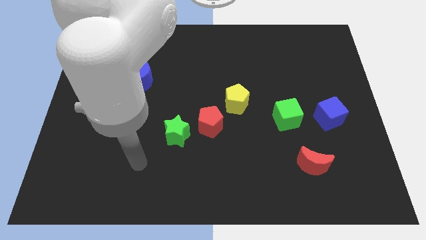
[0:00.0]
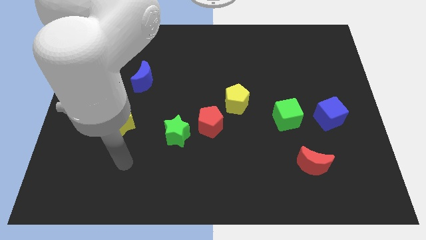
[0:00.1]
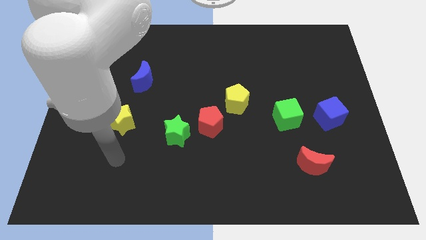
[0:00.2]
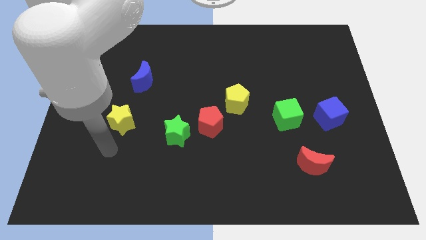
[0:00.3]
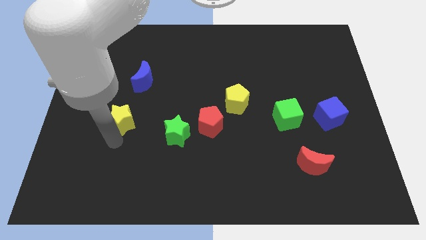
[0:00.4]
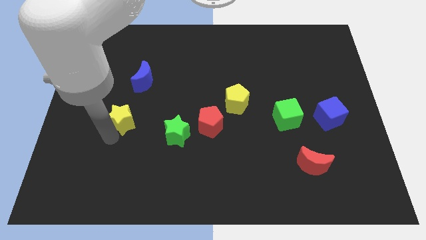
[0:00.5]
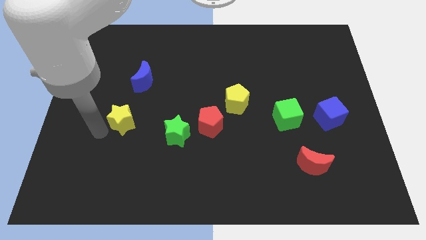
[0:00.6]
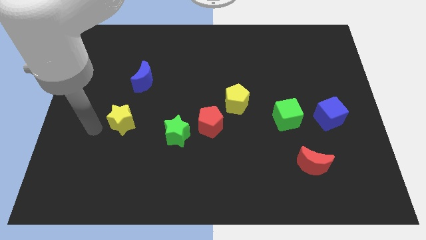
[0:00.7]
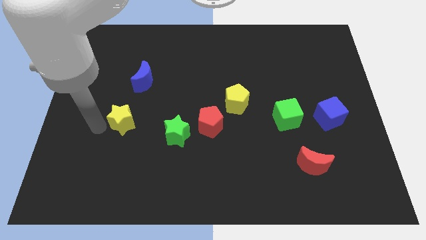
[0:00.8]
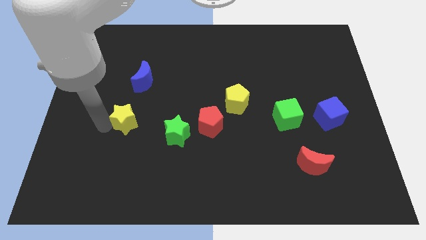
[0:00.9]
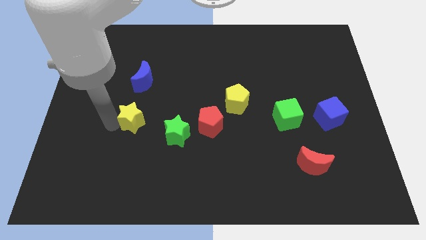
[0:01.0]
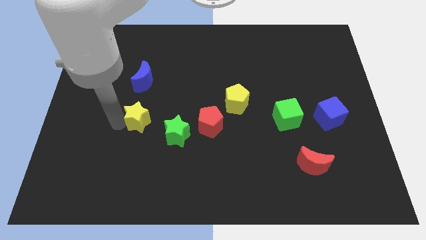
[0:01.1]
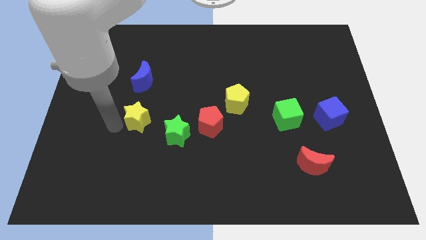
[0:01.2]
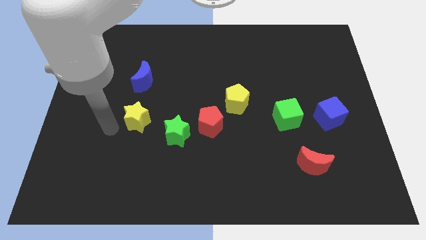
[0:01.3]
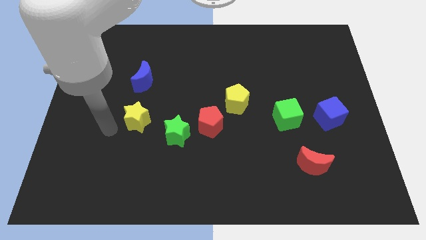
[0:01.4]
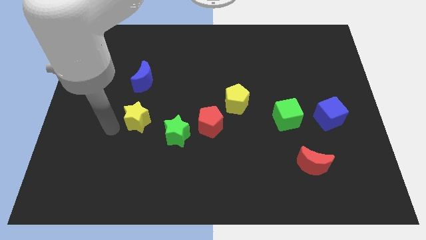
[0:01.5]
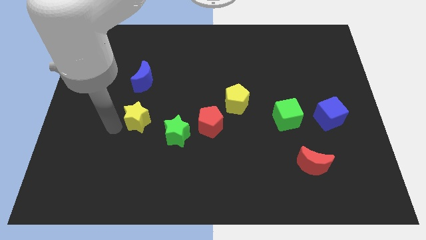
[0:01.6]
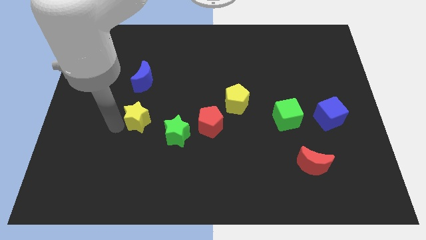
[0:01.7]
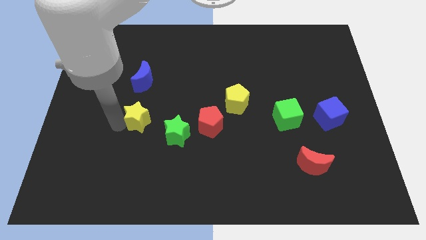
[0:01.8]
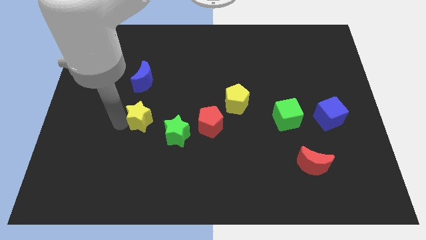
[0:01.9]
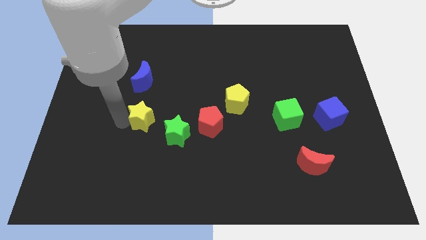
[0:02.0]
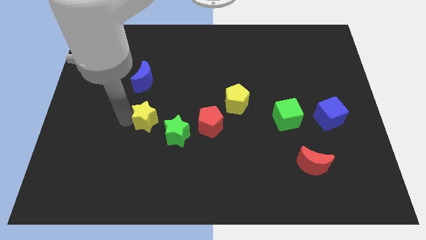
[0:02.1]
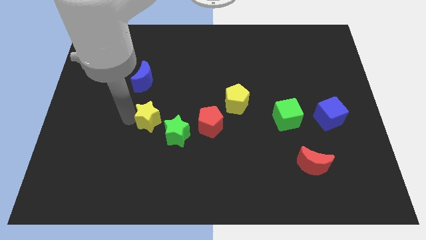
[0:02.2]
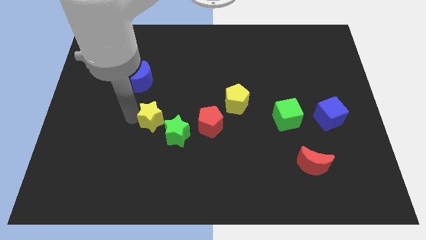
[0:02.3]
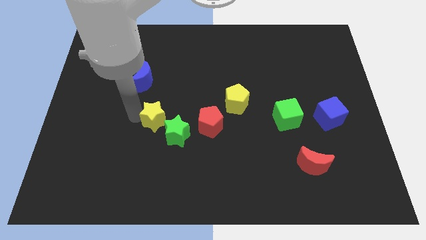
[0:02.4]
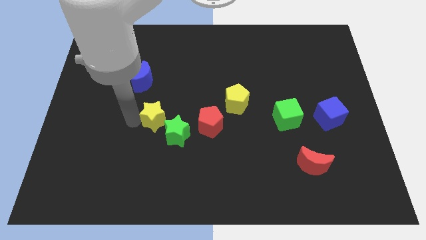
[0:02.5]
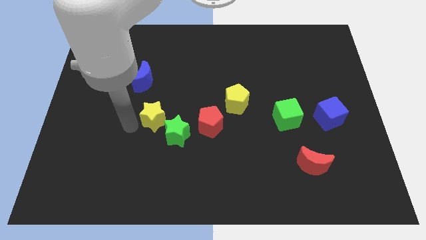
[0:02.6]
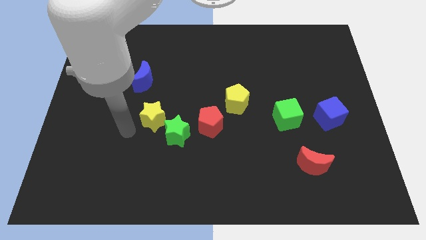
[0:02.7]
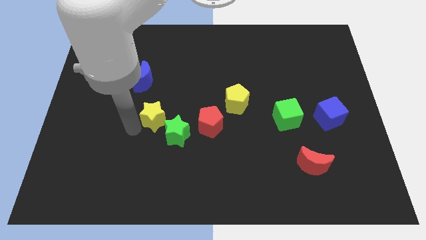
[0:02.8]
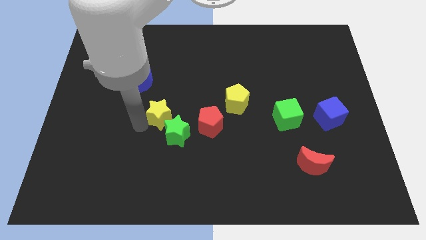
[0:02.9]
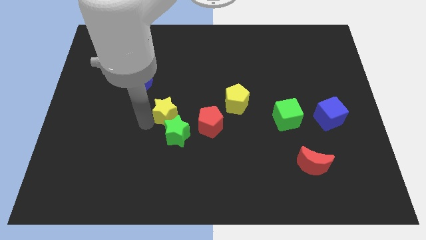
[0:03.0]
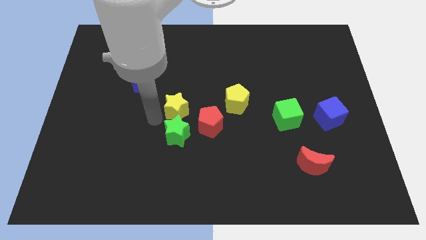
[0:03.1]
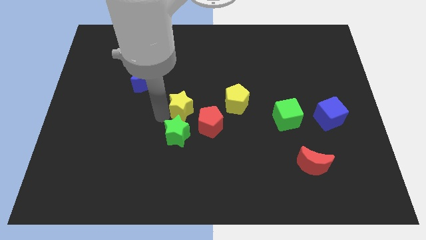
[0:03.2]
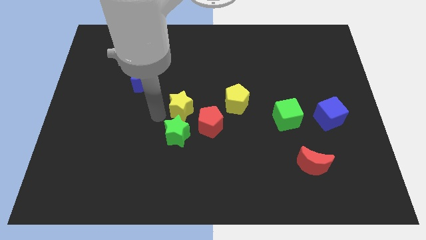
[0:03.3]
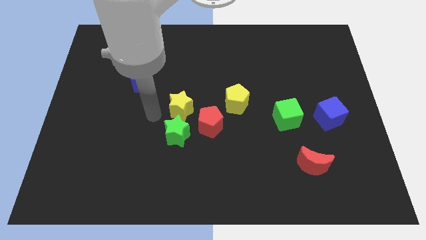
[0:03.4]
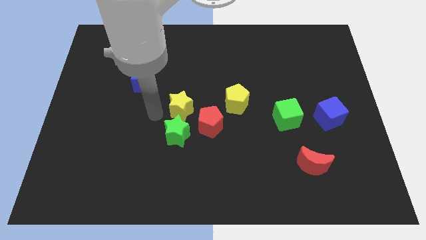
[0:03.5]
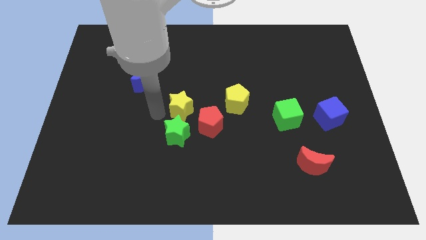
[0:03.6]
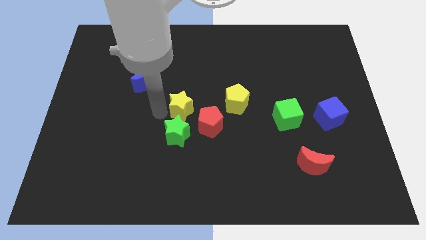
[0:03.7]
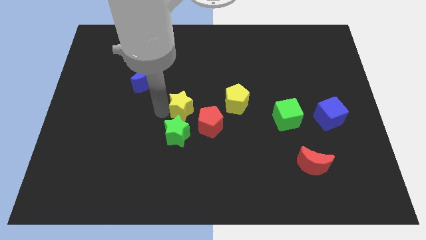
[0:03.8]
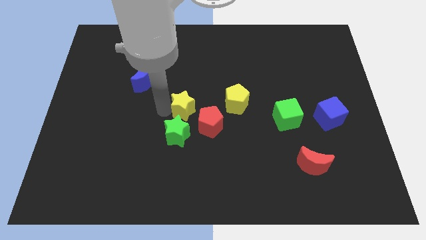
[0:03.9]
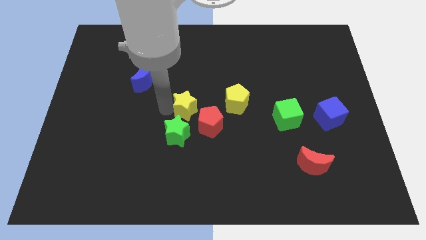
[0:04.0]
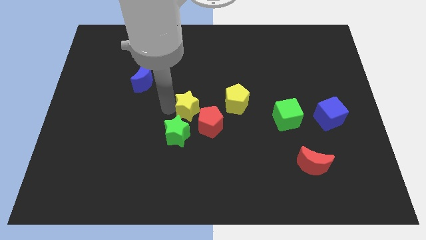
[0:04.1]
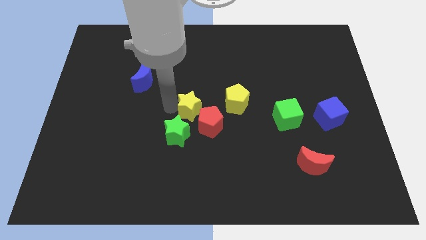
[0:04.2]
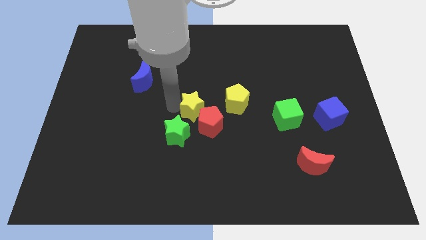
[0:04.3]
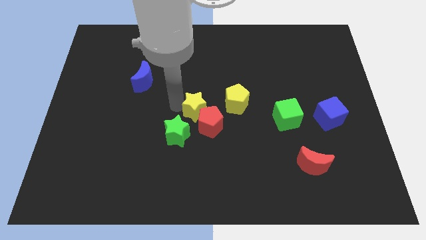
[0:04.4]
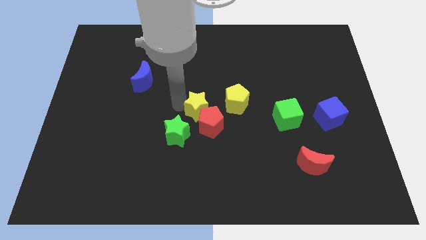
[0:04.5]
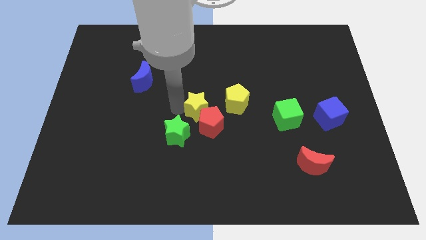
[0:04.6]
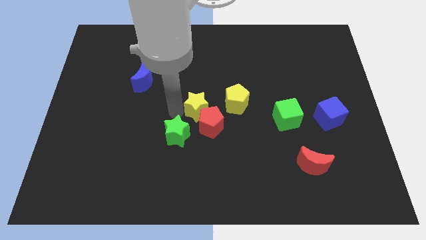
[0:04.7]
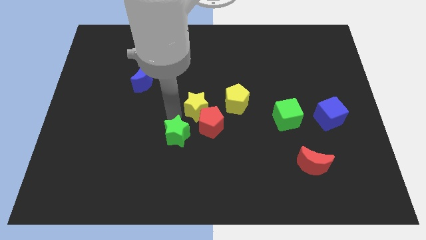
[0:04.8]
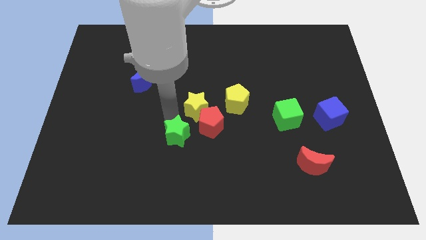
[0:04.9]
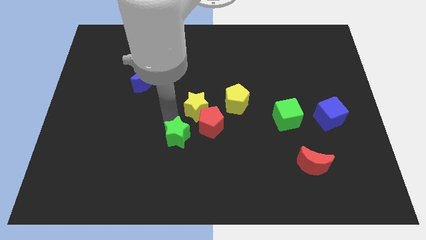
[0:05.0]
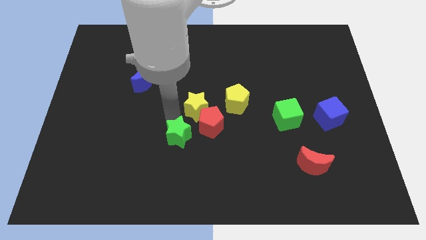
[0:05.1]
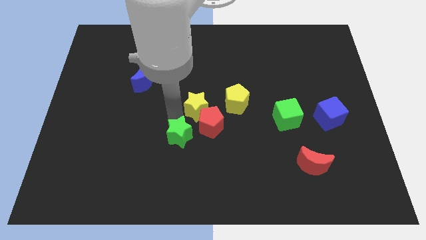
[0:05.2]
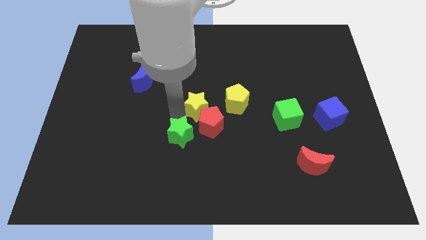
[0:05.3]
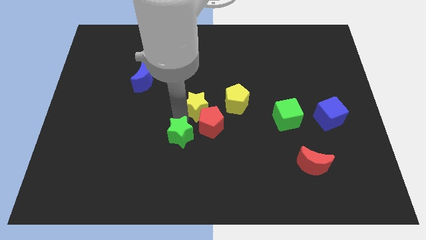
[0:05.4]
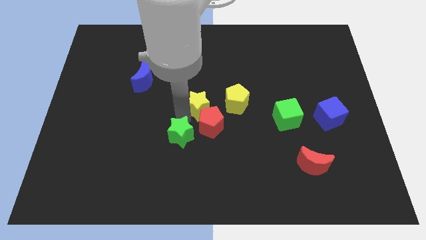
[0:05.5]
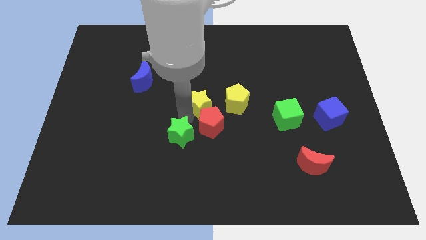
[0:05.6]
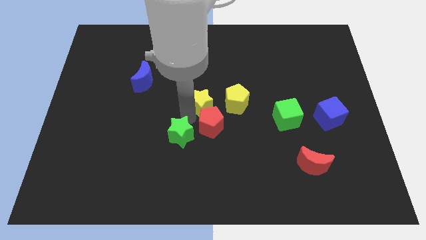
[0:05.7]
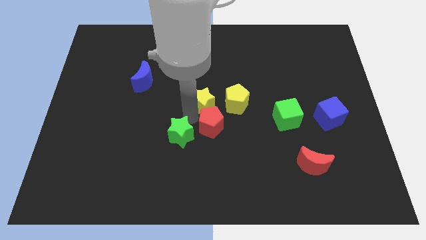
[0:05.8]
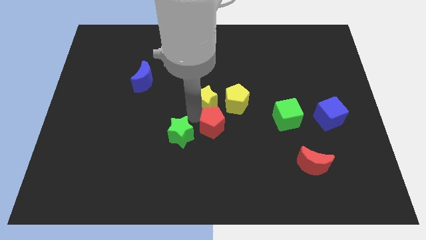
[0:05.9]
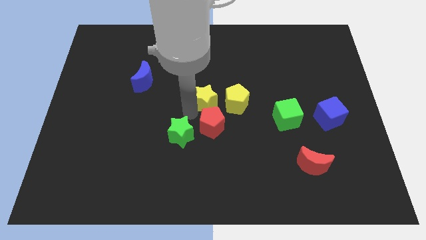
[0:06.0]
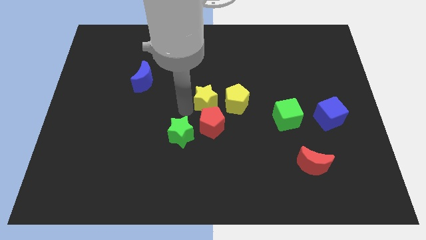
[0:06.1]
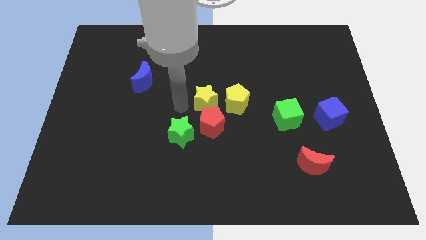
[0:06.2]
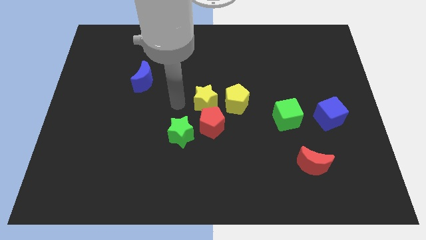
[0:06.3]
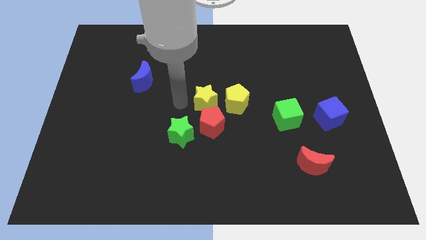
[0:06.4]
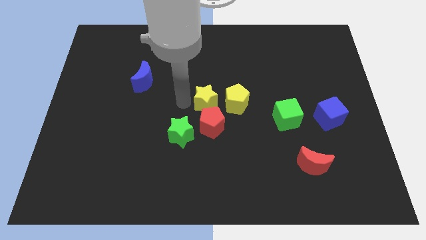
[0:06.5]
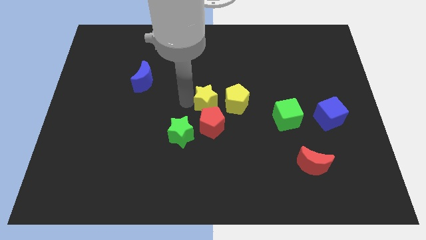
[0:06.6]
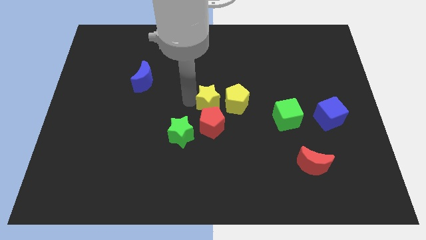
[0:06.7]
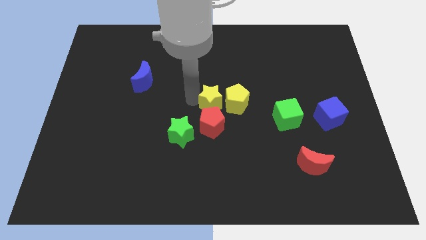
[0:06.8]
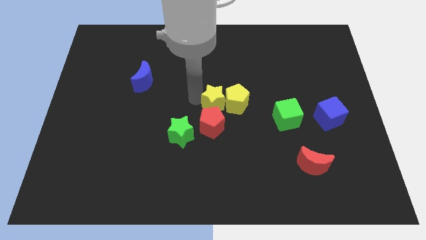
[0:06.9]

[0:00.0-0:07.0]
push the yellow star next to the yellow pentagon
